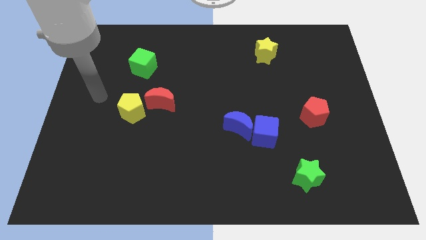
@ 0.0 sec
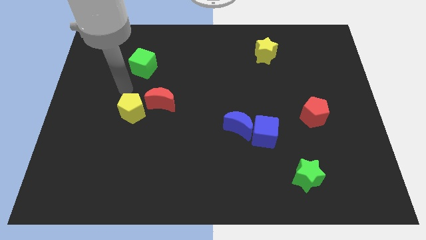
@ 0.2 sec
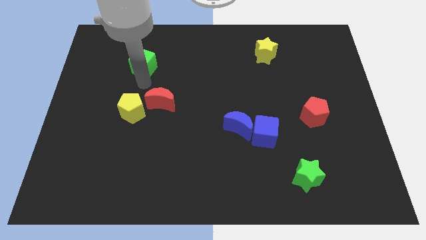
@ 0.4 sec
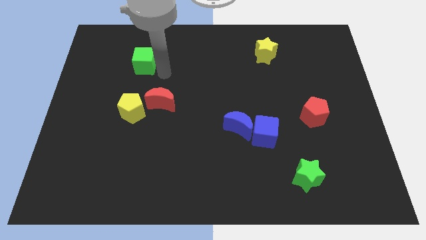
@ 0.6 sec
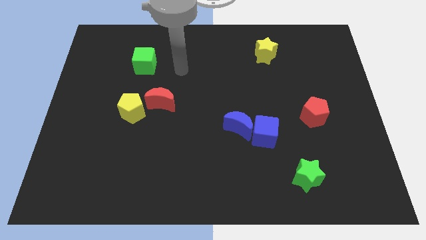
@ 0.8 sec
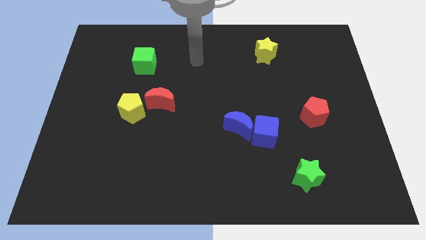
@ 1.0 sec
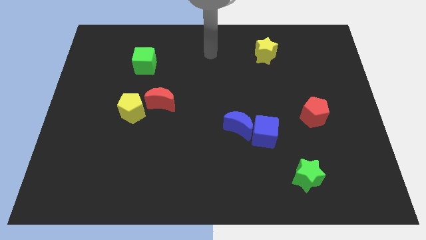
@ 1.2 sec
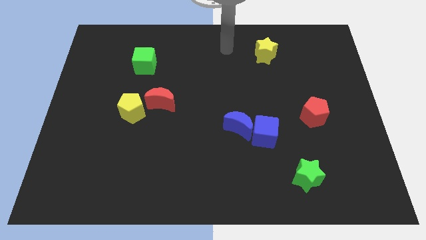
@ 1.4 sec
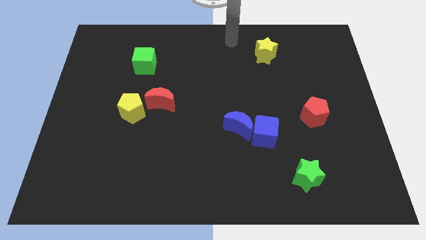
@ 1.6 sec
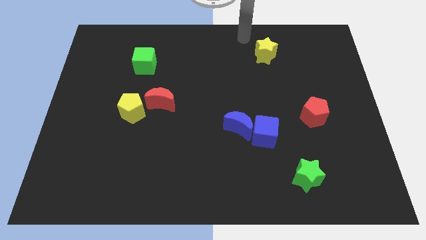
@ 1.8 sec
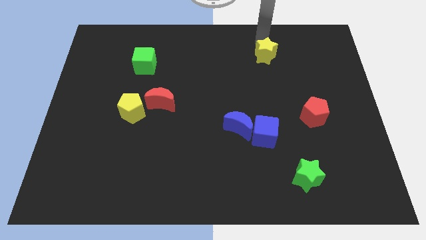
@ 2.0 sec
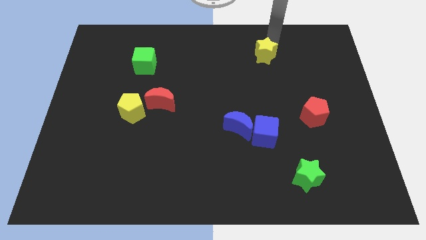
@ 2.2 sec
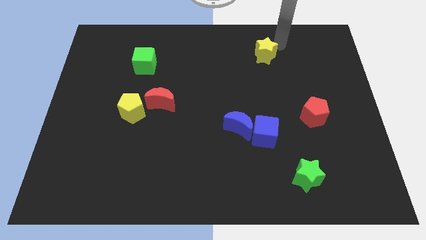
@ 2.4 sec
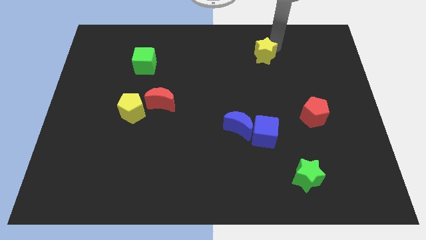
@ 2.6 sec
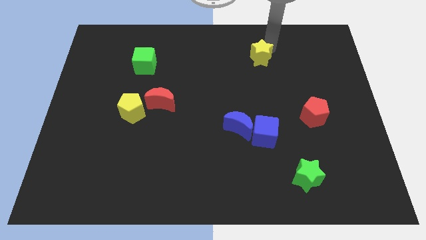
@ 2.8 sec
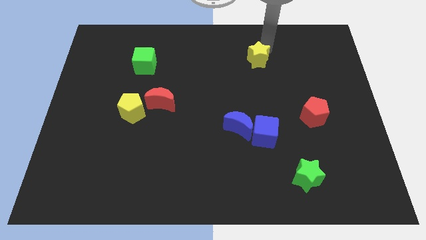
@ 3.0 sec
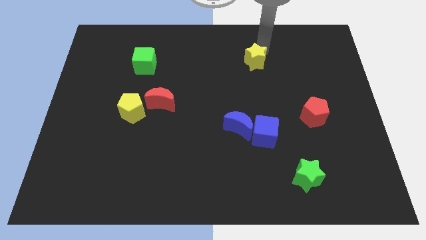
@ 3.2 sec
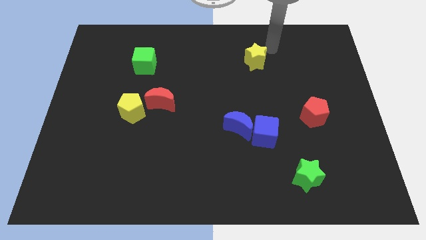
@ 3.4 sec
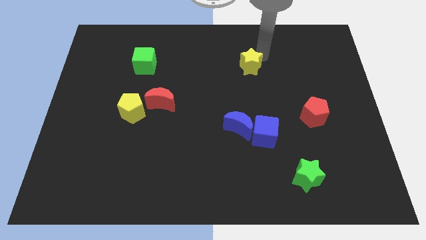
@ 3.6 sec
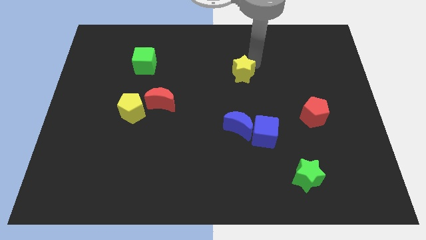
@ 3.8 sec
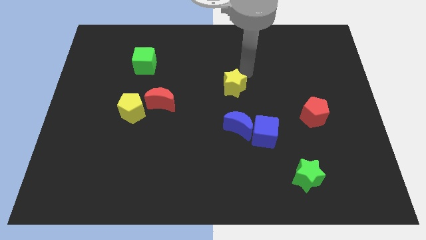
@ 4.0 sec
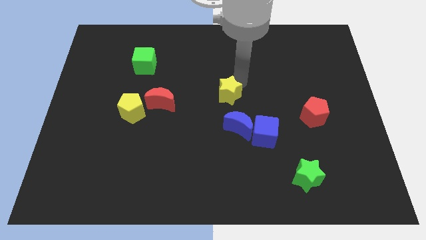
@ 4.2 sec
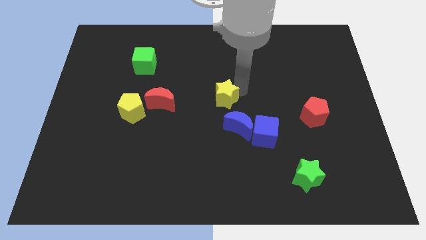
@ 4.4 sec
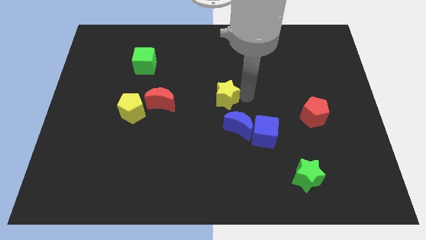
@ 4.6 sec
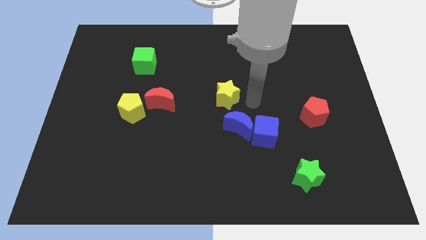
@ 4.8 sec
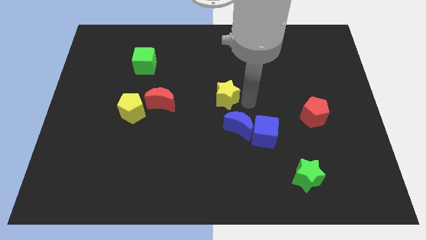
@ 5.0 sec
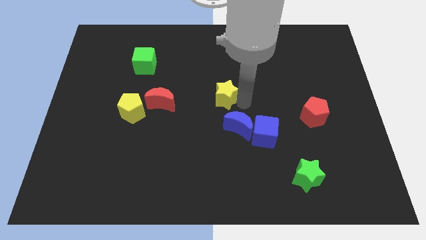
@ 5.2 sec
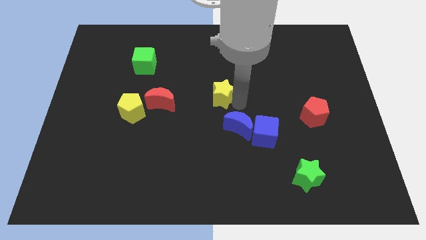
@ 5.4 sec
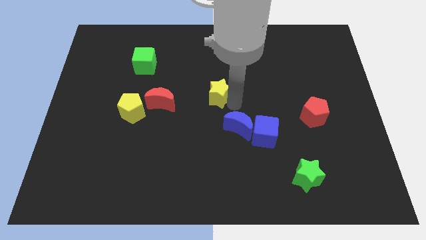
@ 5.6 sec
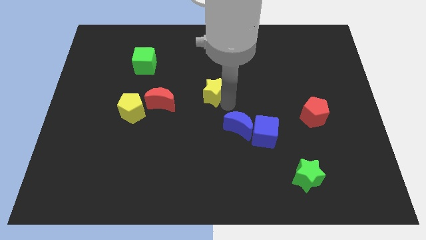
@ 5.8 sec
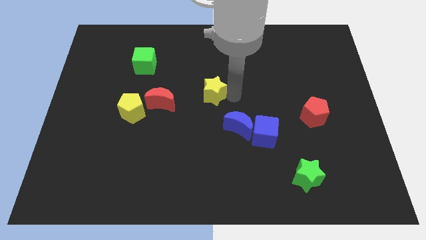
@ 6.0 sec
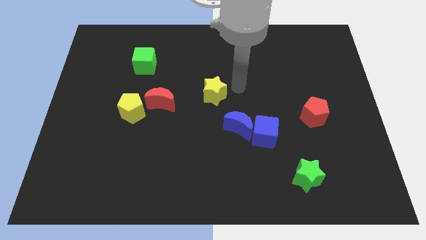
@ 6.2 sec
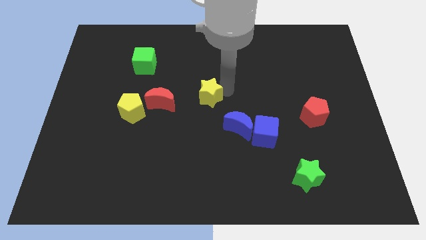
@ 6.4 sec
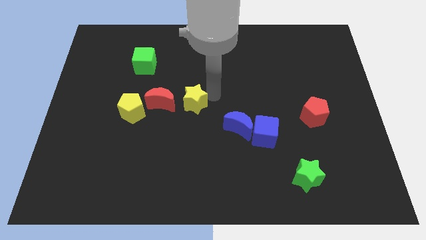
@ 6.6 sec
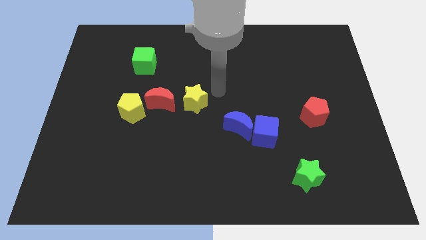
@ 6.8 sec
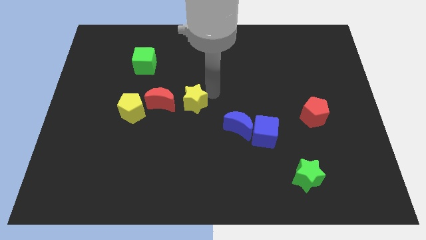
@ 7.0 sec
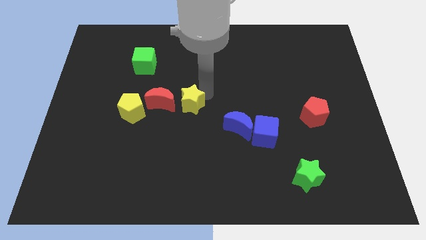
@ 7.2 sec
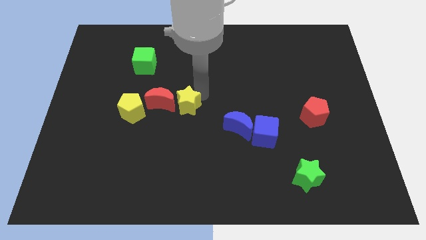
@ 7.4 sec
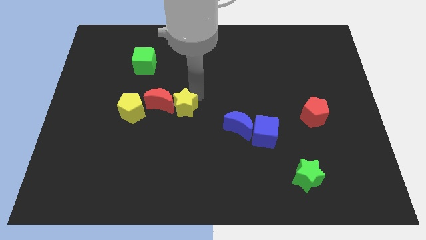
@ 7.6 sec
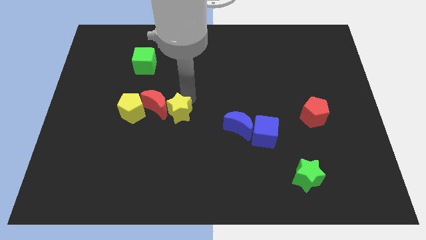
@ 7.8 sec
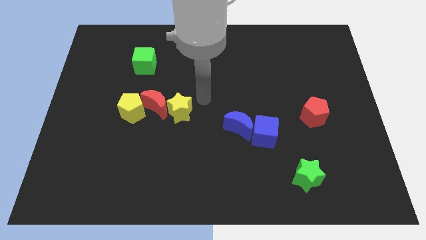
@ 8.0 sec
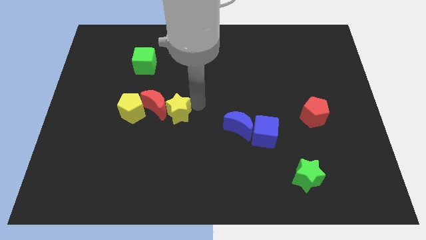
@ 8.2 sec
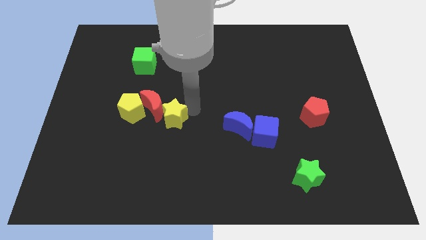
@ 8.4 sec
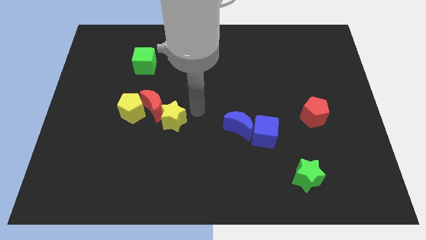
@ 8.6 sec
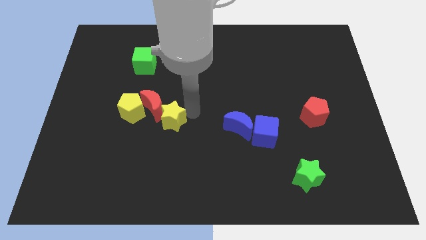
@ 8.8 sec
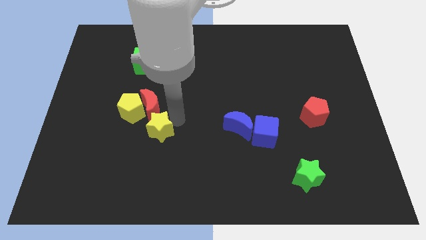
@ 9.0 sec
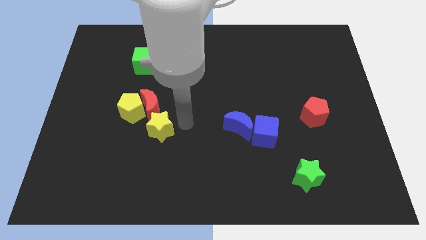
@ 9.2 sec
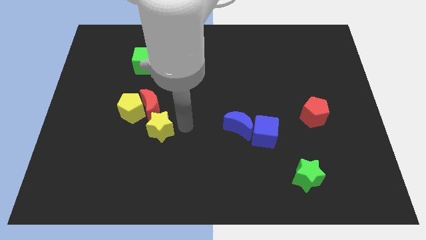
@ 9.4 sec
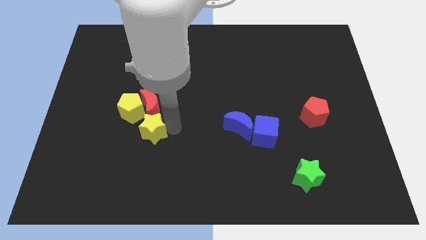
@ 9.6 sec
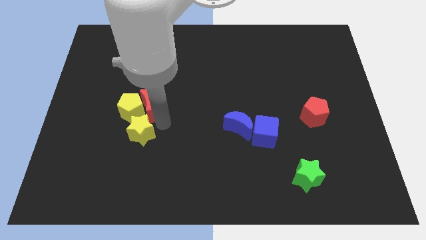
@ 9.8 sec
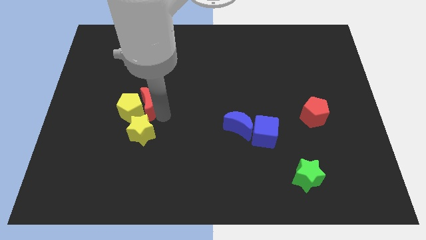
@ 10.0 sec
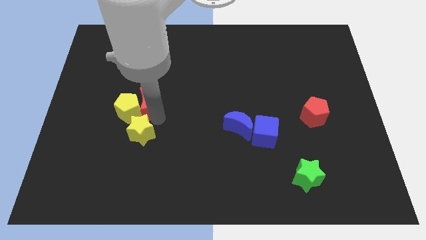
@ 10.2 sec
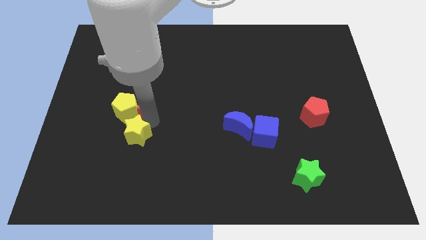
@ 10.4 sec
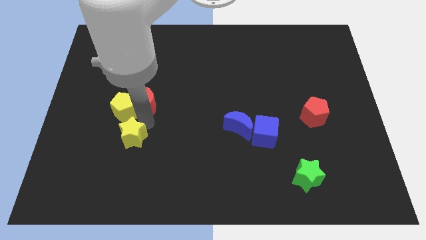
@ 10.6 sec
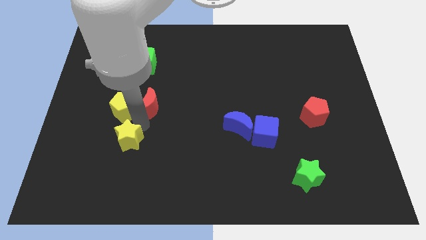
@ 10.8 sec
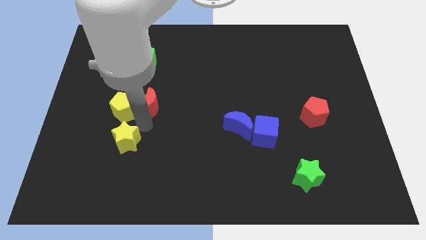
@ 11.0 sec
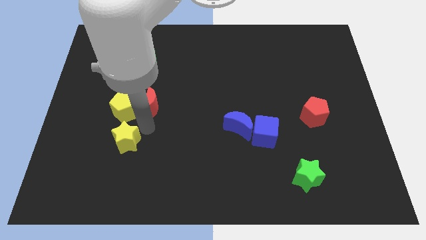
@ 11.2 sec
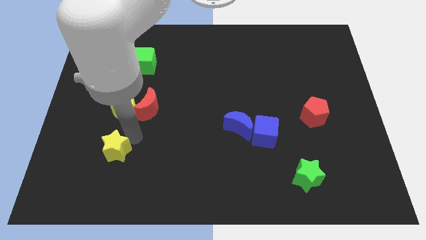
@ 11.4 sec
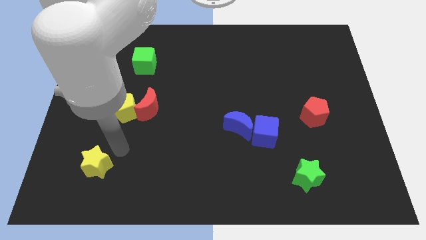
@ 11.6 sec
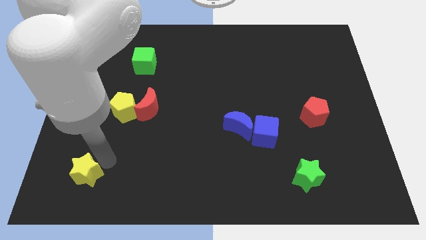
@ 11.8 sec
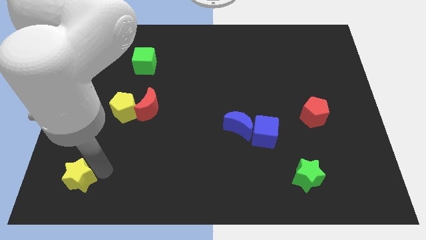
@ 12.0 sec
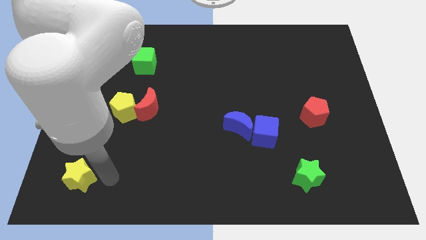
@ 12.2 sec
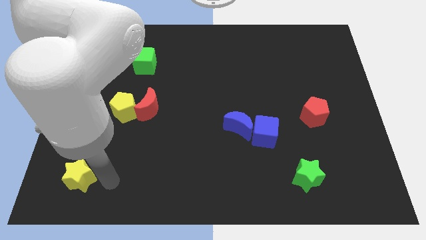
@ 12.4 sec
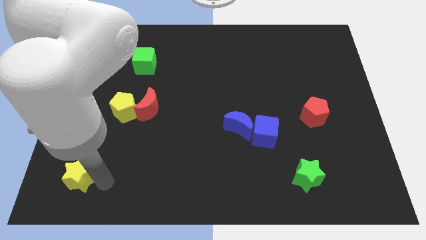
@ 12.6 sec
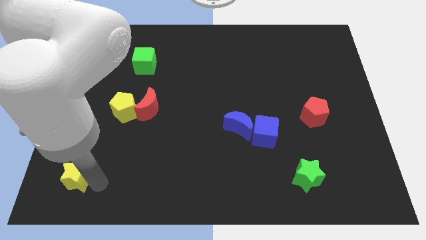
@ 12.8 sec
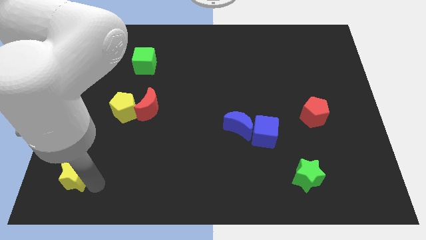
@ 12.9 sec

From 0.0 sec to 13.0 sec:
put the yellow star to the bottom left
